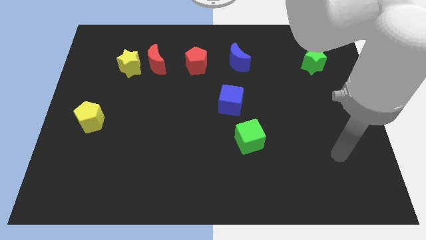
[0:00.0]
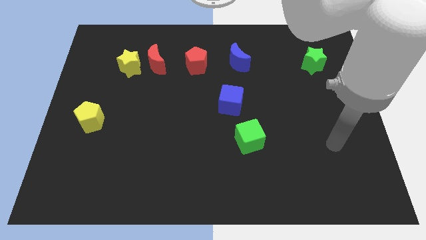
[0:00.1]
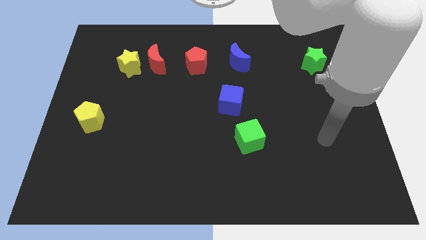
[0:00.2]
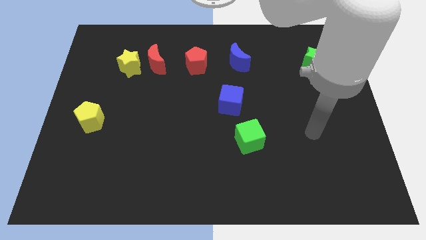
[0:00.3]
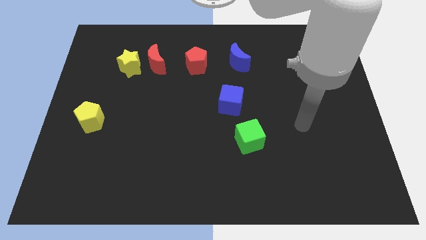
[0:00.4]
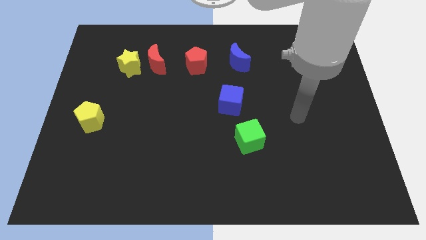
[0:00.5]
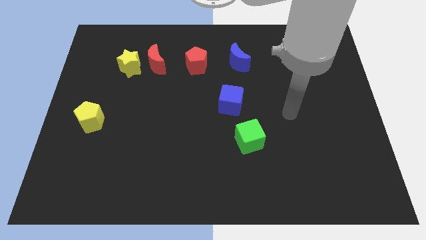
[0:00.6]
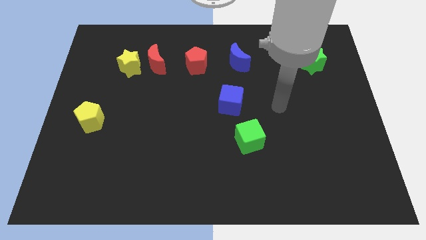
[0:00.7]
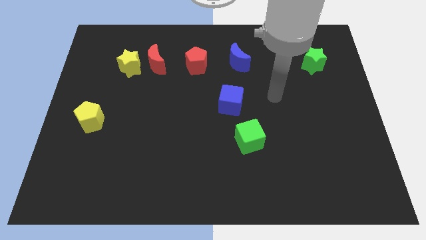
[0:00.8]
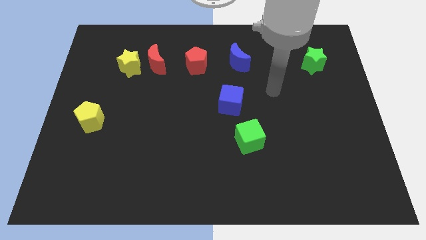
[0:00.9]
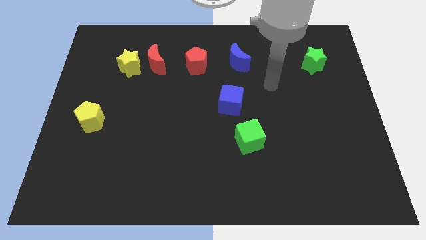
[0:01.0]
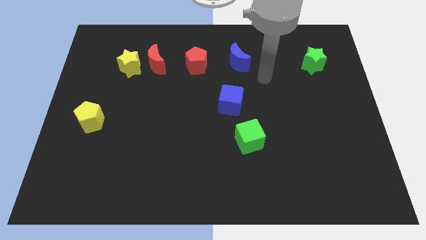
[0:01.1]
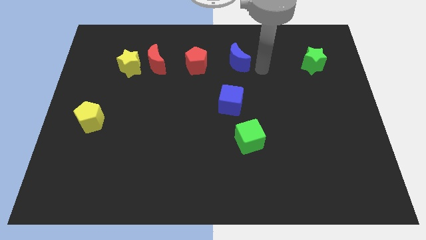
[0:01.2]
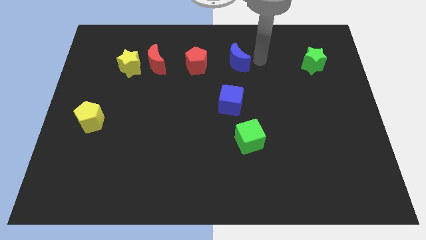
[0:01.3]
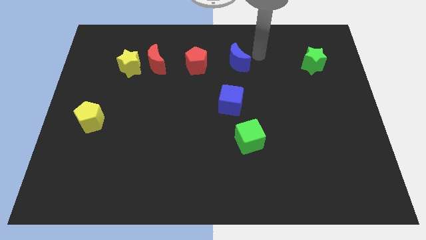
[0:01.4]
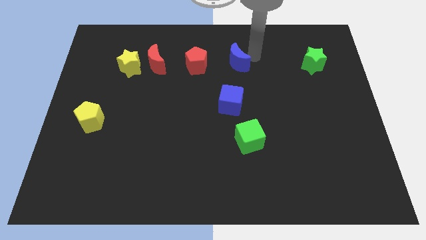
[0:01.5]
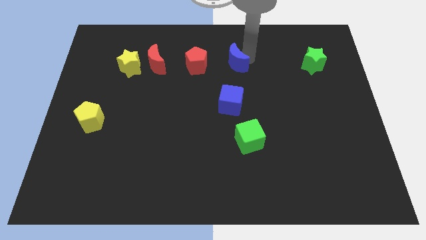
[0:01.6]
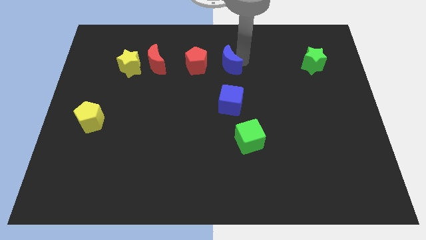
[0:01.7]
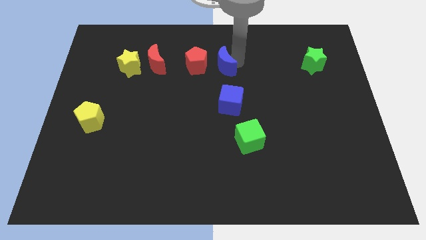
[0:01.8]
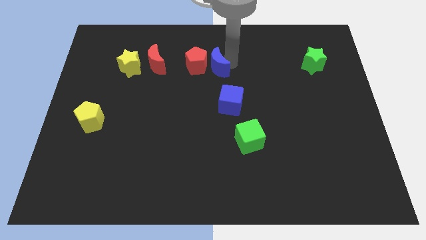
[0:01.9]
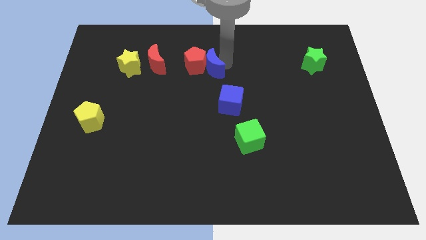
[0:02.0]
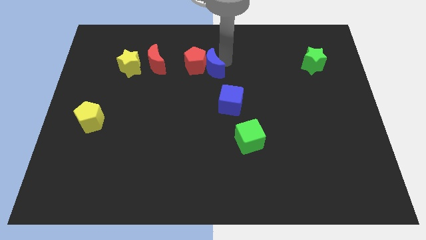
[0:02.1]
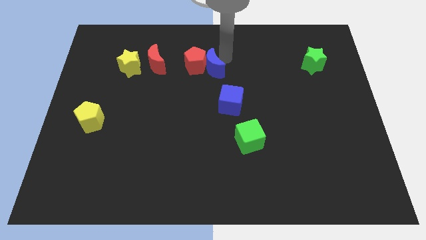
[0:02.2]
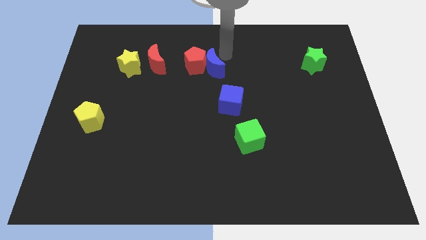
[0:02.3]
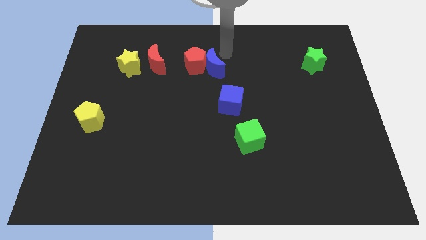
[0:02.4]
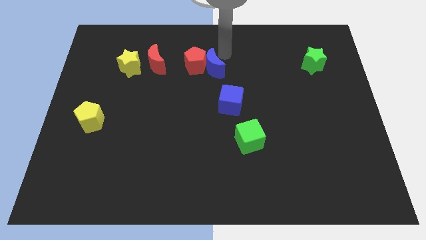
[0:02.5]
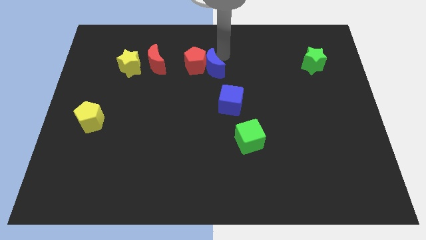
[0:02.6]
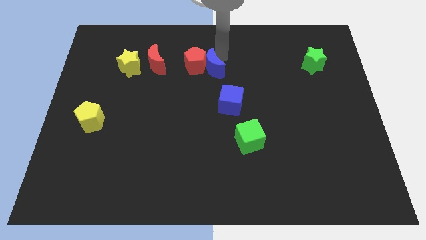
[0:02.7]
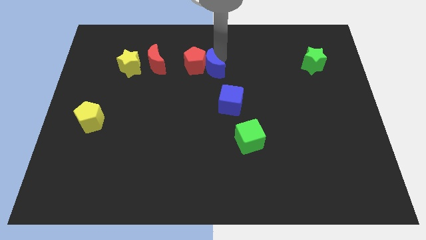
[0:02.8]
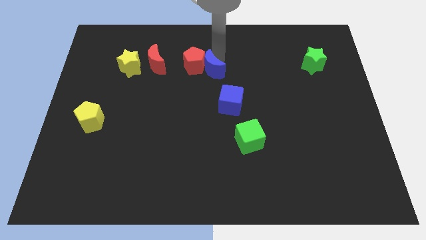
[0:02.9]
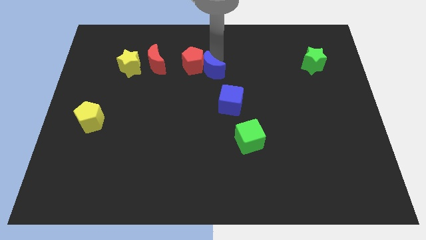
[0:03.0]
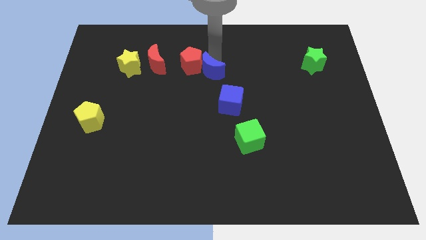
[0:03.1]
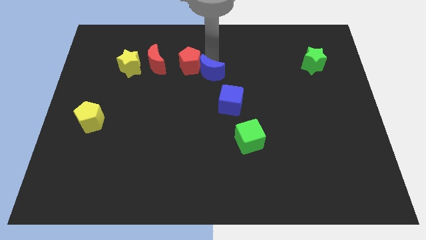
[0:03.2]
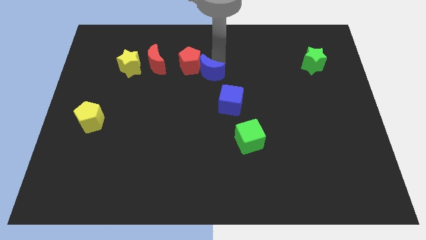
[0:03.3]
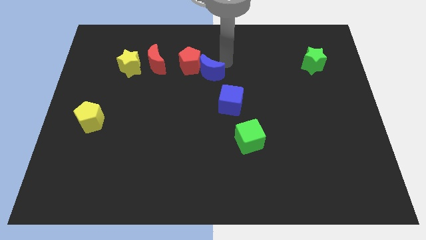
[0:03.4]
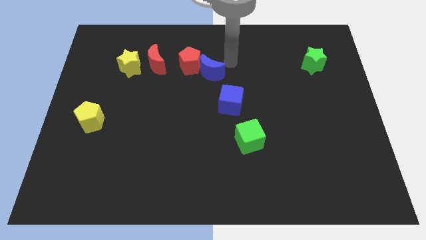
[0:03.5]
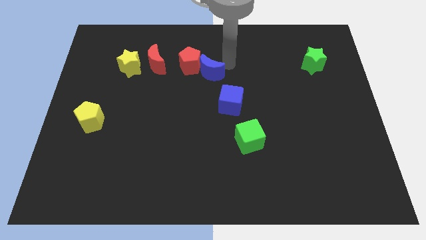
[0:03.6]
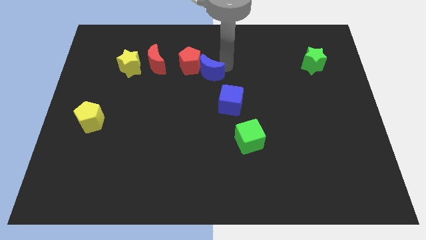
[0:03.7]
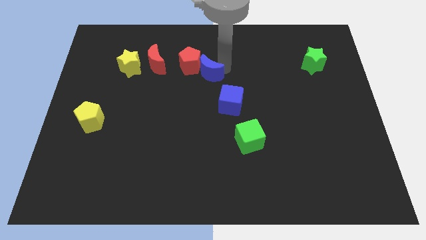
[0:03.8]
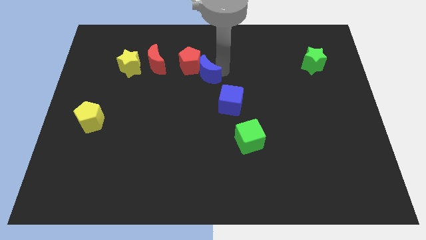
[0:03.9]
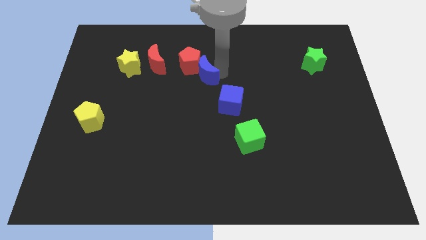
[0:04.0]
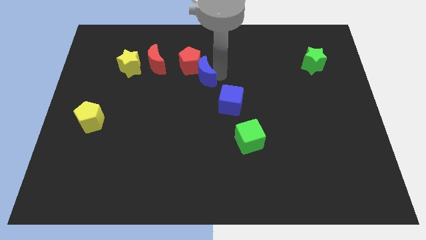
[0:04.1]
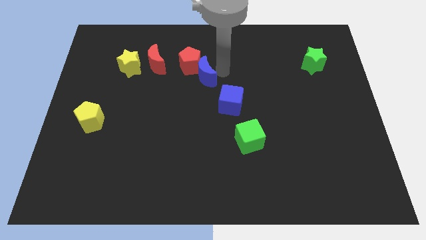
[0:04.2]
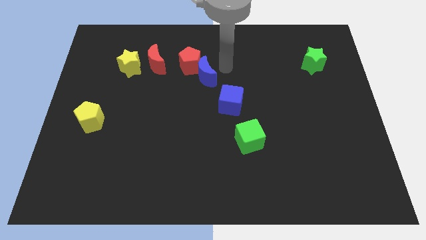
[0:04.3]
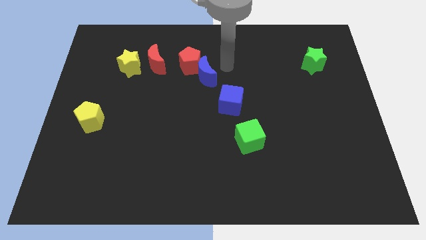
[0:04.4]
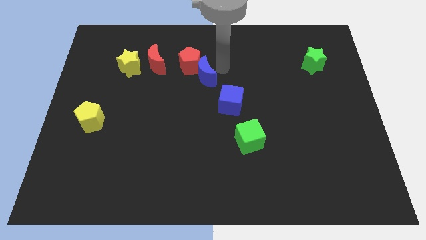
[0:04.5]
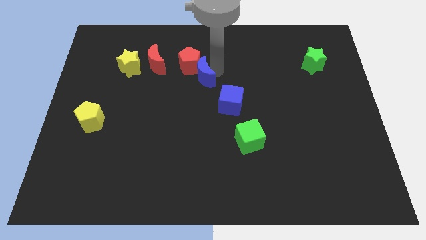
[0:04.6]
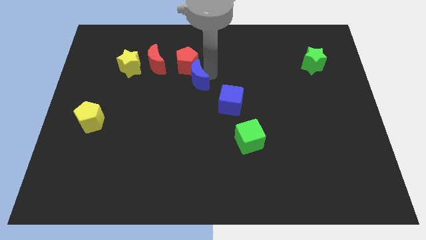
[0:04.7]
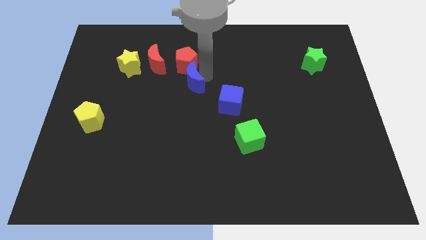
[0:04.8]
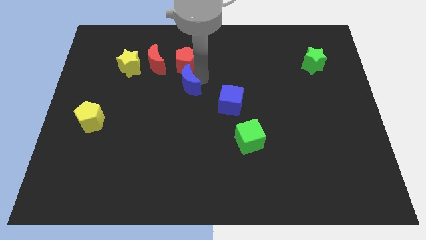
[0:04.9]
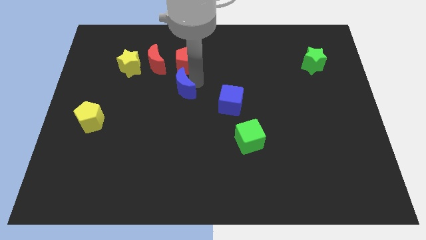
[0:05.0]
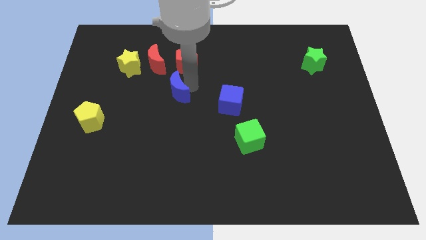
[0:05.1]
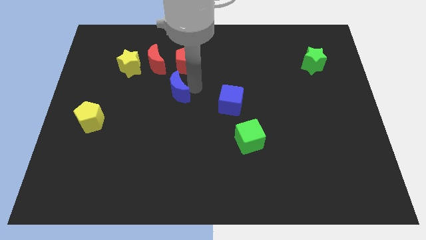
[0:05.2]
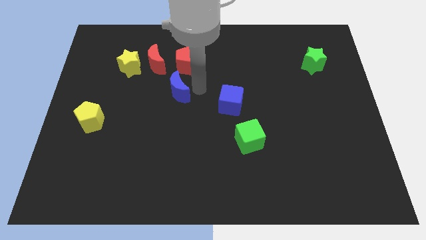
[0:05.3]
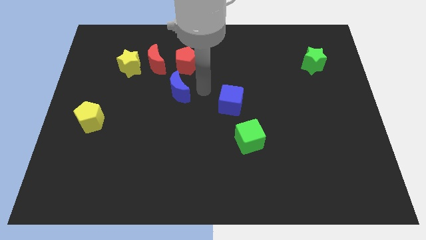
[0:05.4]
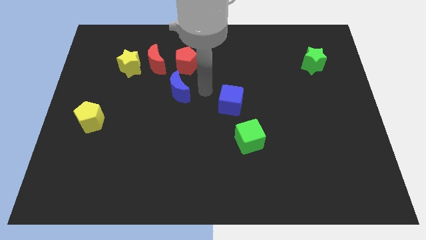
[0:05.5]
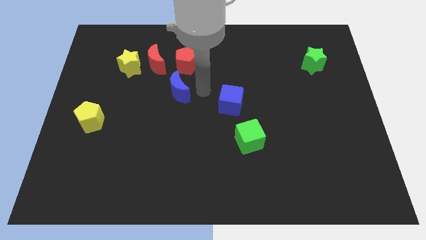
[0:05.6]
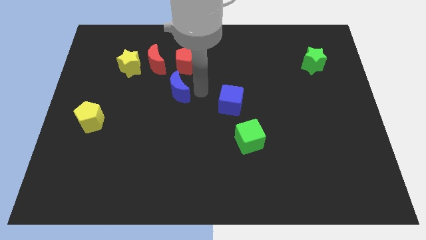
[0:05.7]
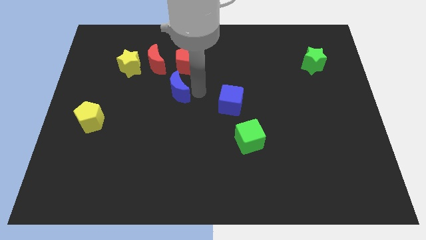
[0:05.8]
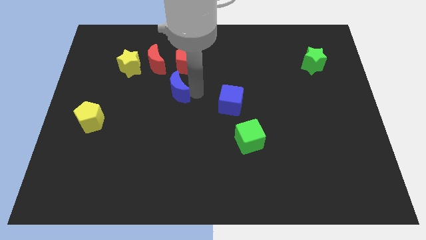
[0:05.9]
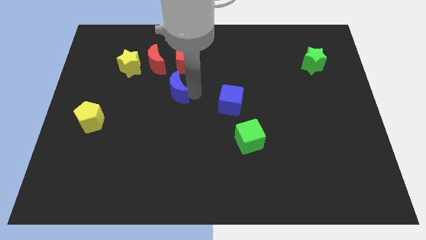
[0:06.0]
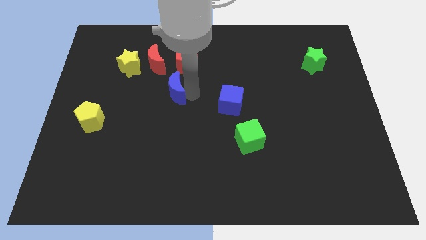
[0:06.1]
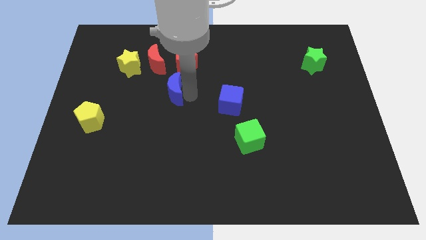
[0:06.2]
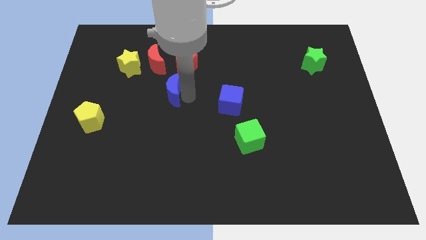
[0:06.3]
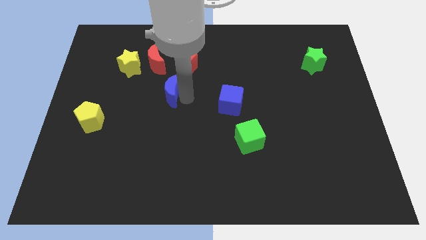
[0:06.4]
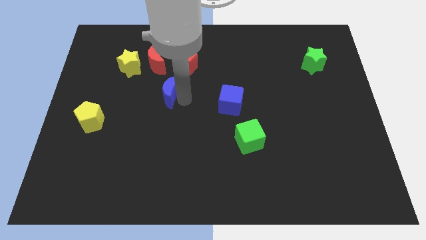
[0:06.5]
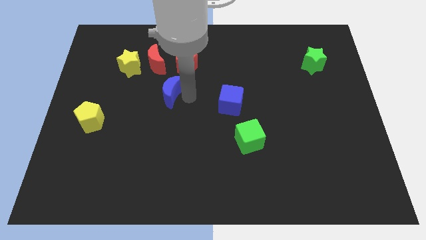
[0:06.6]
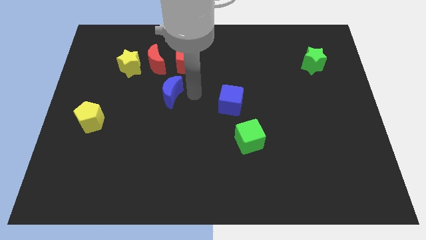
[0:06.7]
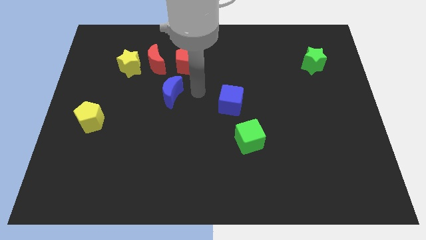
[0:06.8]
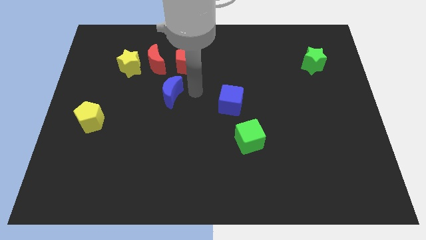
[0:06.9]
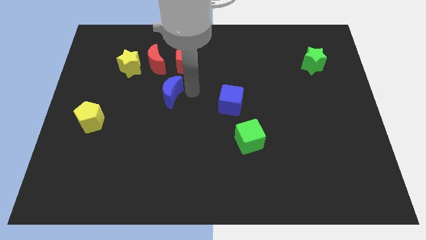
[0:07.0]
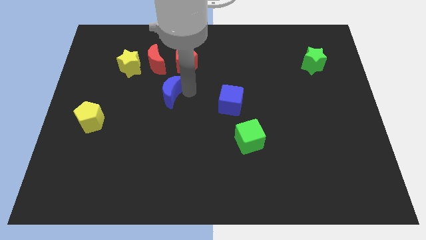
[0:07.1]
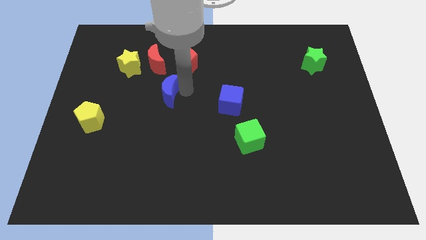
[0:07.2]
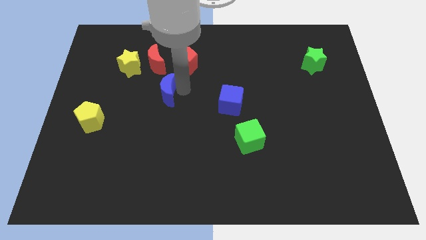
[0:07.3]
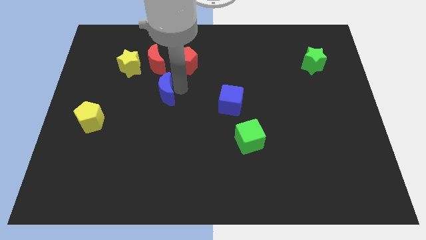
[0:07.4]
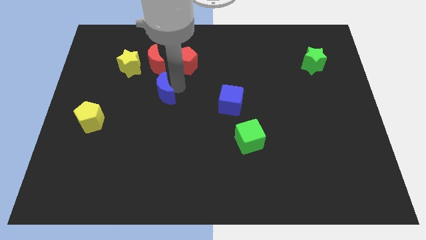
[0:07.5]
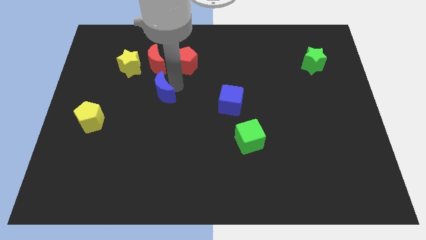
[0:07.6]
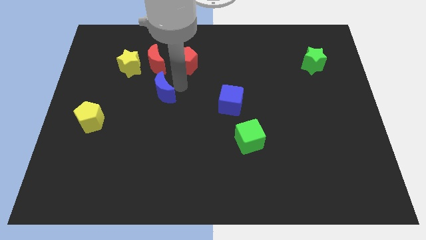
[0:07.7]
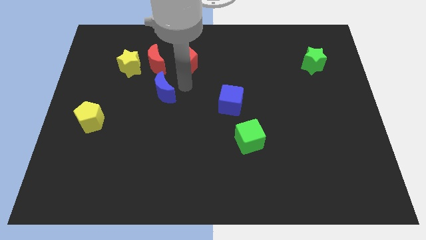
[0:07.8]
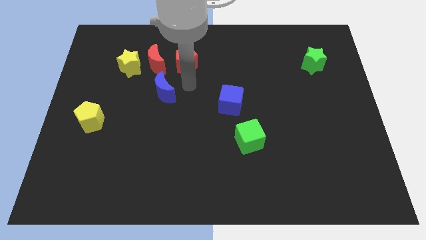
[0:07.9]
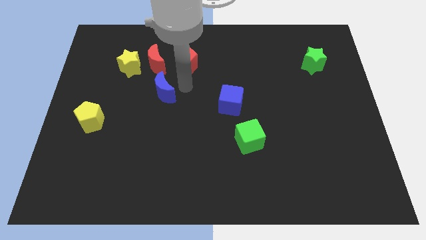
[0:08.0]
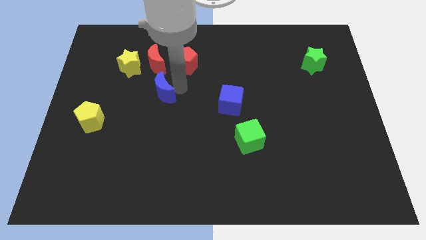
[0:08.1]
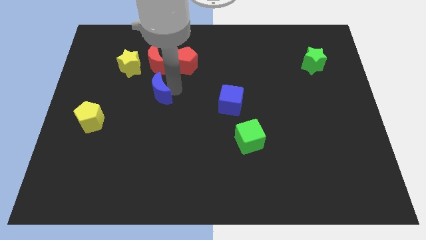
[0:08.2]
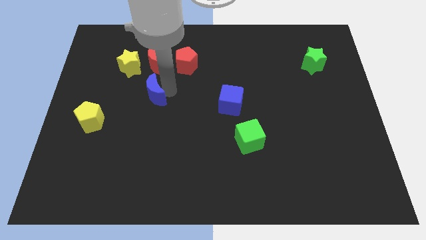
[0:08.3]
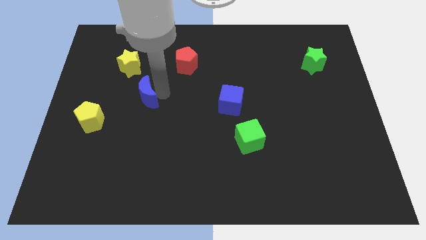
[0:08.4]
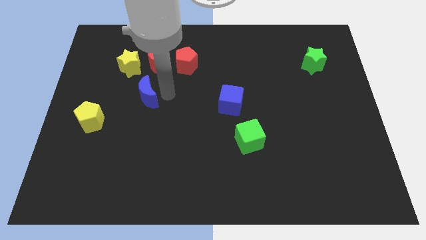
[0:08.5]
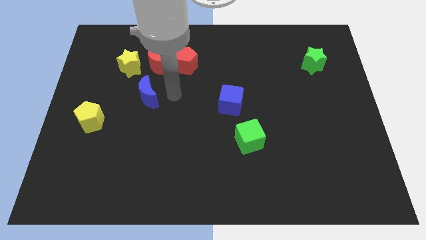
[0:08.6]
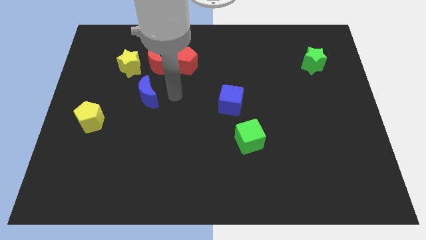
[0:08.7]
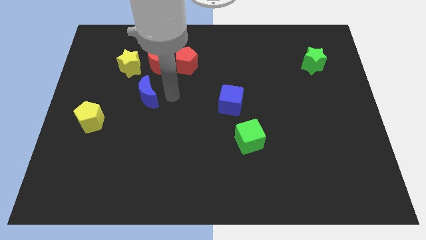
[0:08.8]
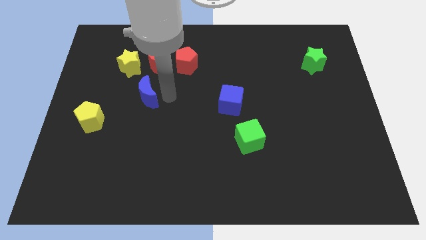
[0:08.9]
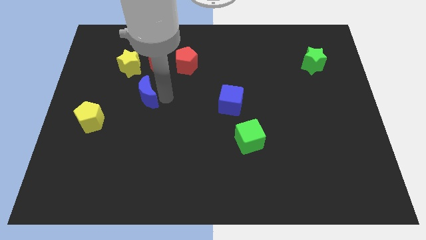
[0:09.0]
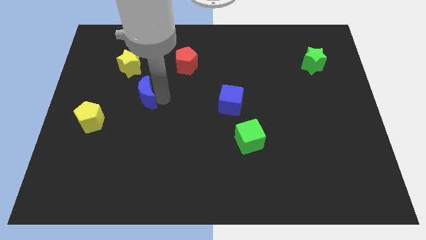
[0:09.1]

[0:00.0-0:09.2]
move the blue moon to the bottom of the yellow star
